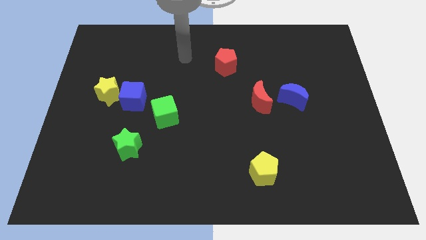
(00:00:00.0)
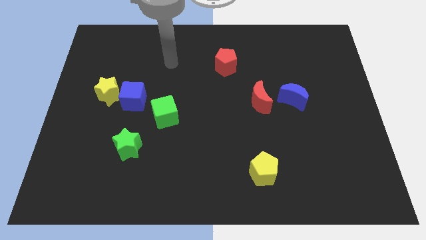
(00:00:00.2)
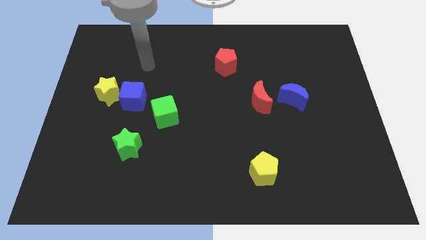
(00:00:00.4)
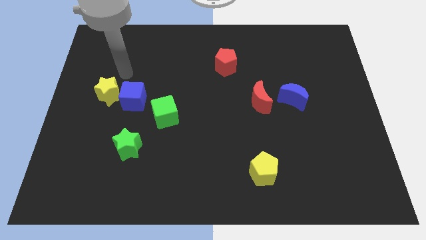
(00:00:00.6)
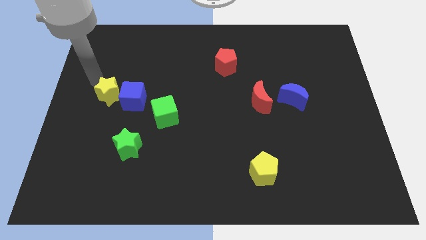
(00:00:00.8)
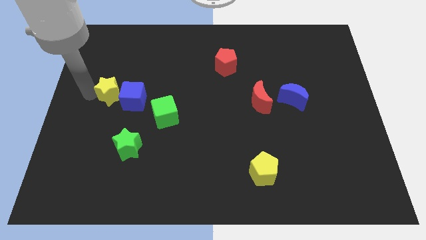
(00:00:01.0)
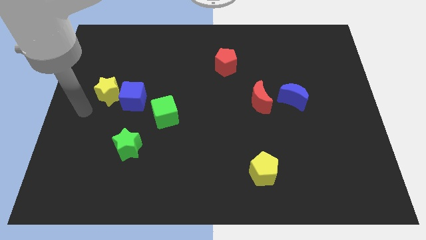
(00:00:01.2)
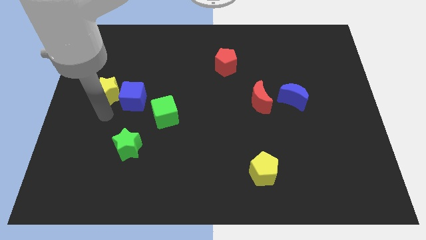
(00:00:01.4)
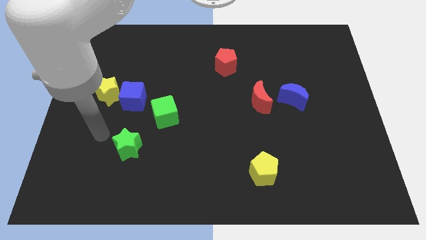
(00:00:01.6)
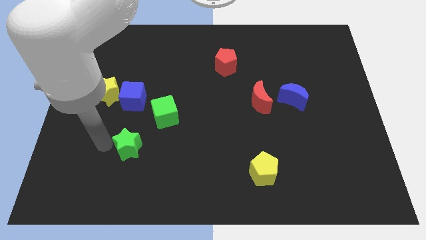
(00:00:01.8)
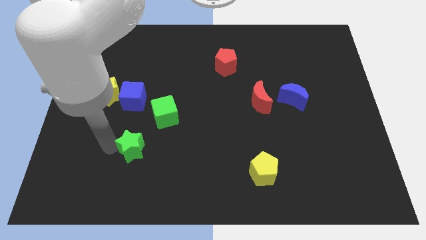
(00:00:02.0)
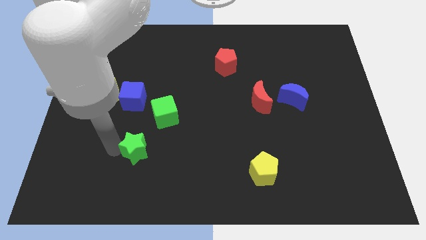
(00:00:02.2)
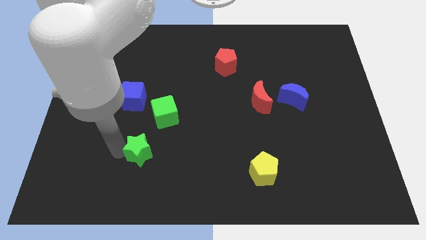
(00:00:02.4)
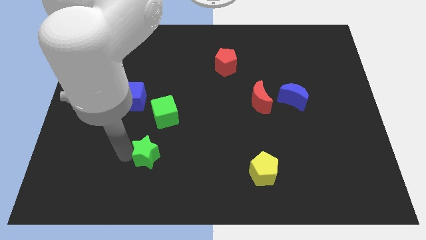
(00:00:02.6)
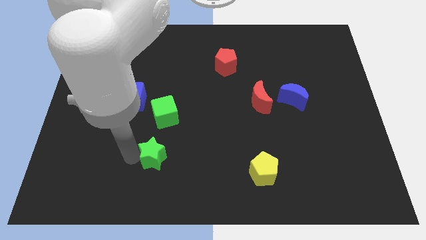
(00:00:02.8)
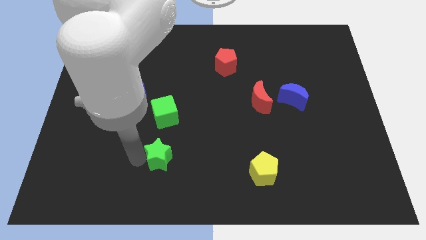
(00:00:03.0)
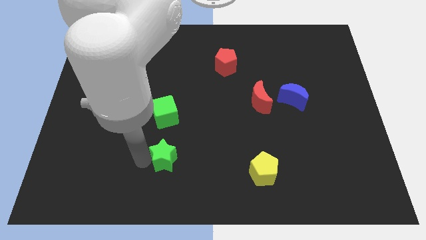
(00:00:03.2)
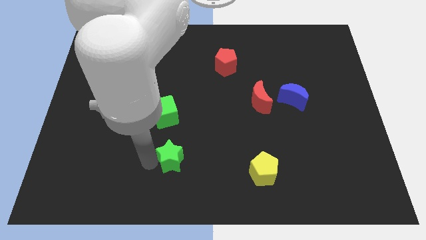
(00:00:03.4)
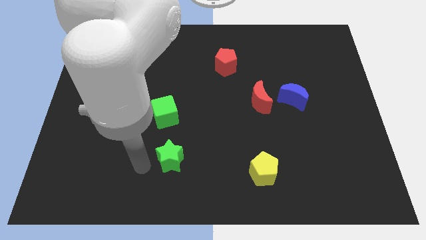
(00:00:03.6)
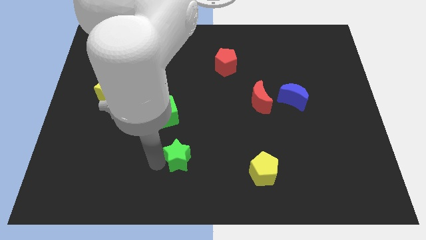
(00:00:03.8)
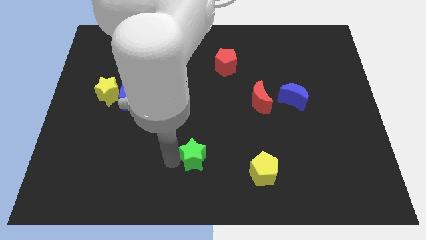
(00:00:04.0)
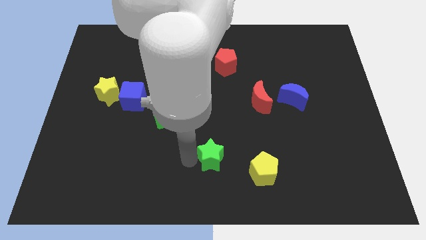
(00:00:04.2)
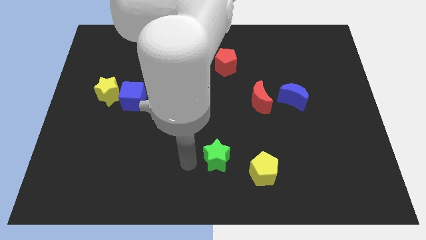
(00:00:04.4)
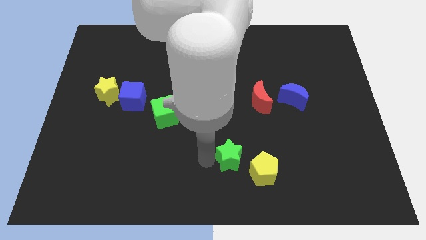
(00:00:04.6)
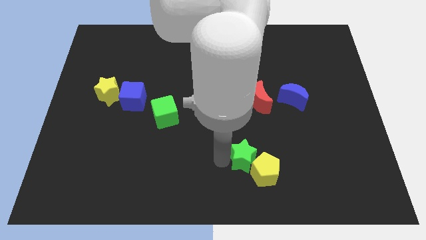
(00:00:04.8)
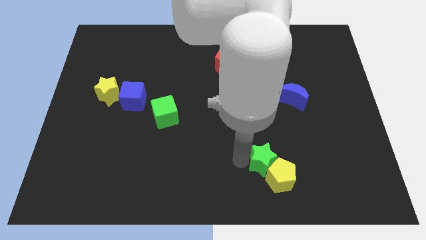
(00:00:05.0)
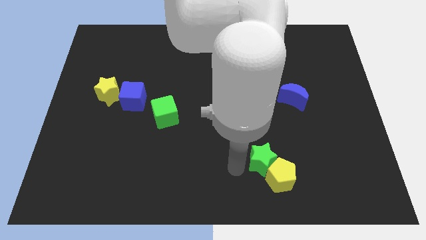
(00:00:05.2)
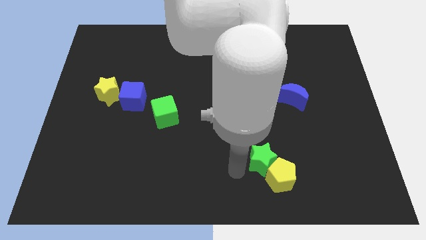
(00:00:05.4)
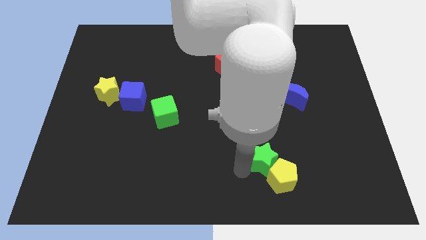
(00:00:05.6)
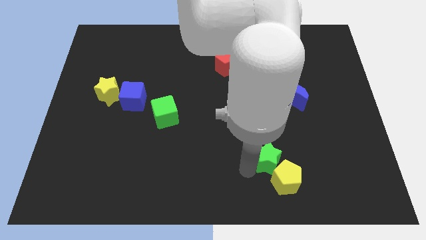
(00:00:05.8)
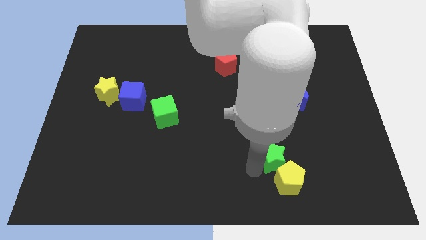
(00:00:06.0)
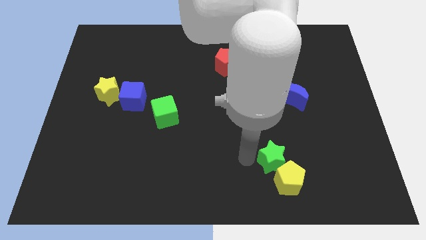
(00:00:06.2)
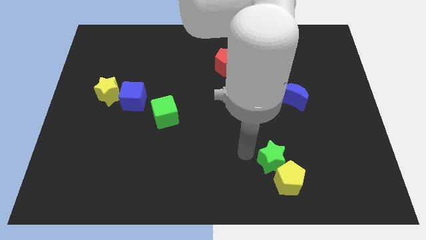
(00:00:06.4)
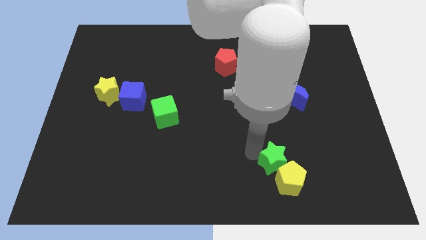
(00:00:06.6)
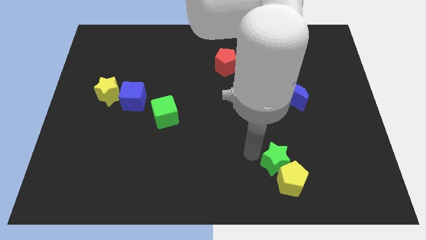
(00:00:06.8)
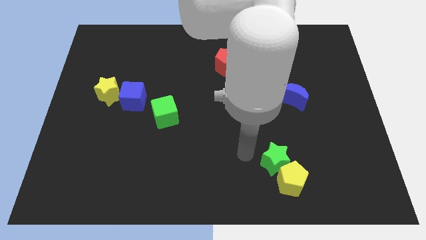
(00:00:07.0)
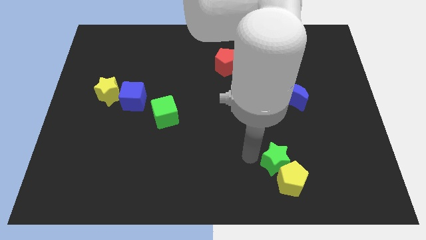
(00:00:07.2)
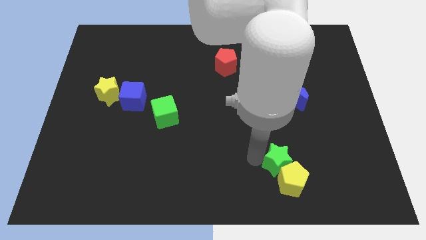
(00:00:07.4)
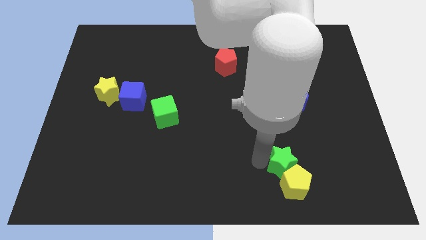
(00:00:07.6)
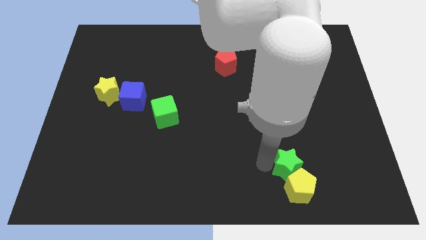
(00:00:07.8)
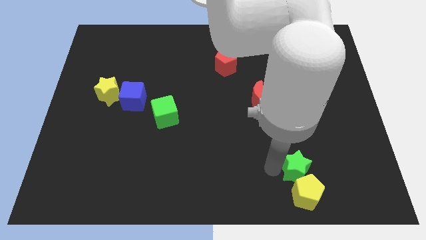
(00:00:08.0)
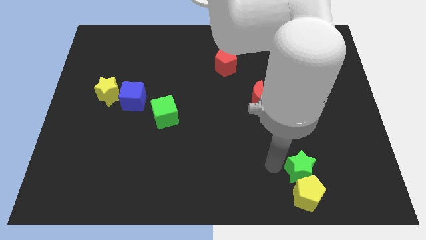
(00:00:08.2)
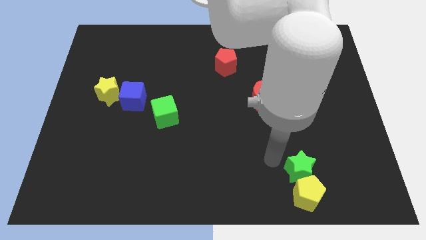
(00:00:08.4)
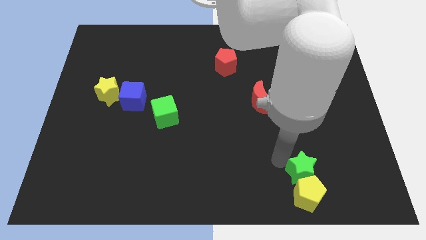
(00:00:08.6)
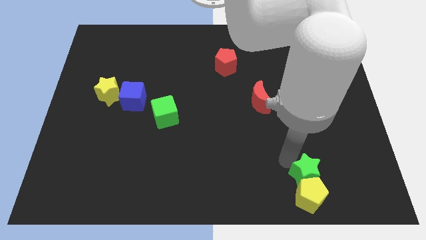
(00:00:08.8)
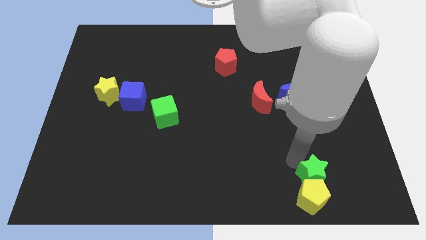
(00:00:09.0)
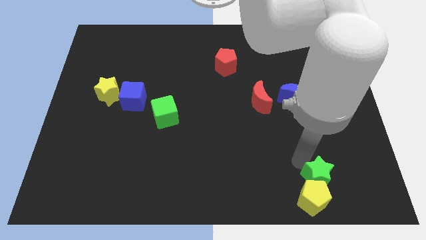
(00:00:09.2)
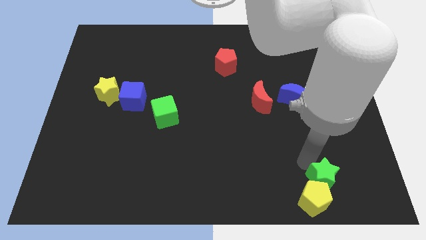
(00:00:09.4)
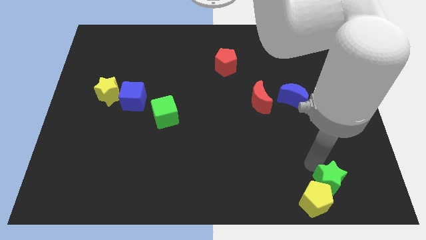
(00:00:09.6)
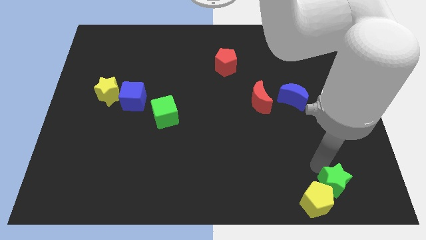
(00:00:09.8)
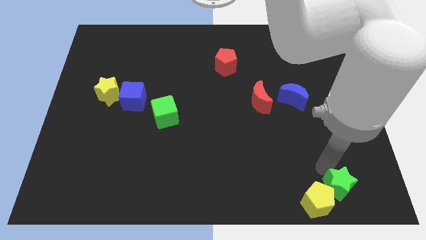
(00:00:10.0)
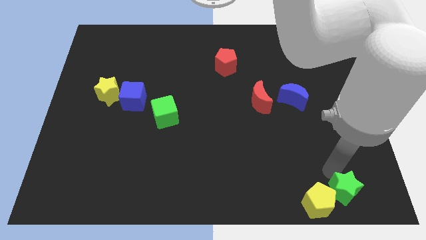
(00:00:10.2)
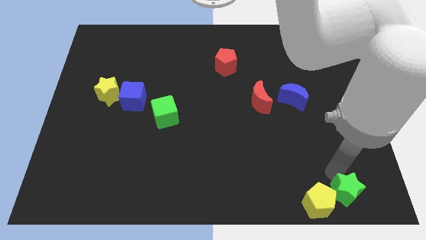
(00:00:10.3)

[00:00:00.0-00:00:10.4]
put the green star to the bottom right corner

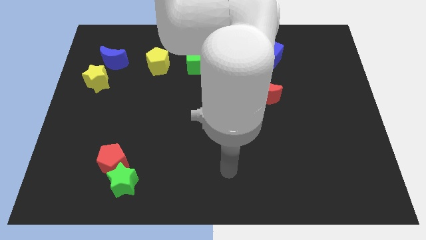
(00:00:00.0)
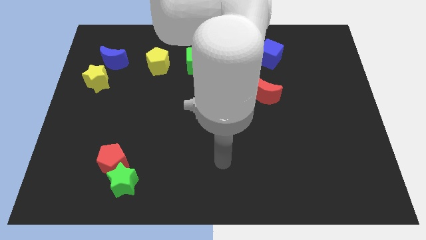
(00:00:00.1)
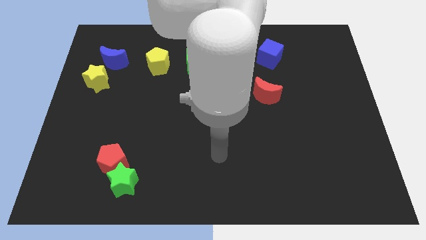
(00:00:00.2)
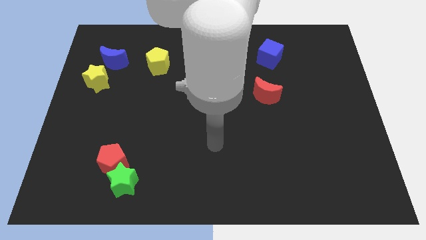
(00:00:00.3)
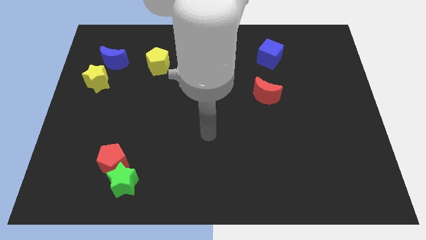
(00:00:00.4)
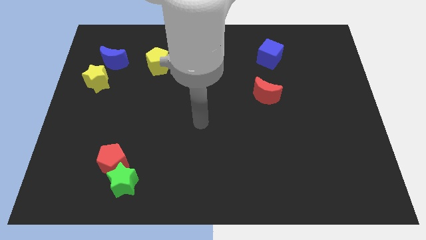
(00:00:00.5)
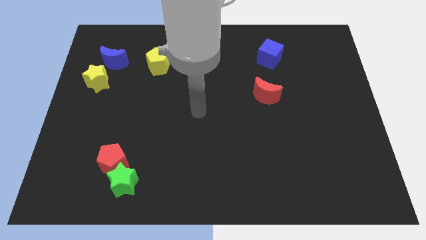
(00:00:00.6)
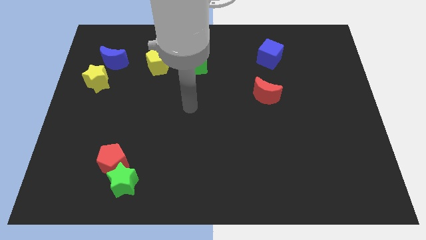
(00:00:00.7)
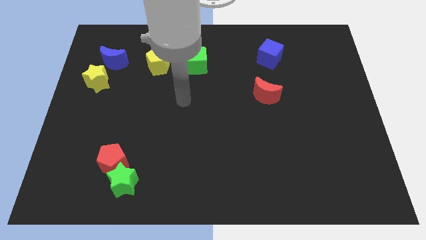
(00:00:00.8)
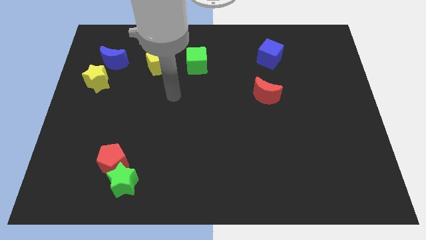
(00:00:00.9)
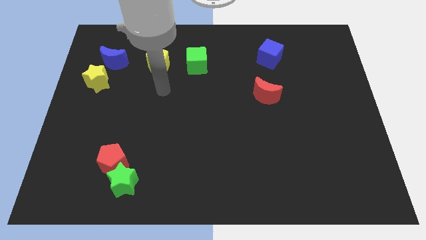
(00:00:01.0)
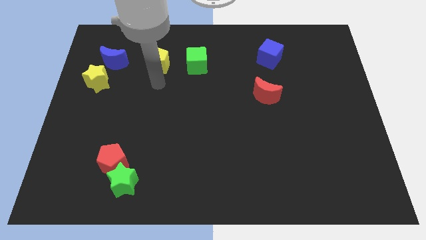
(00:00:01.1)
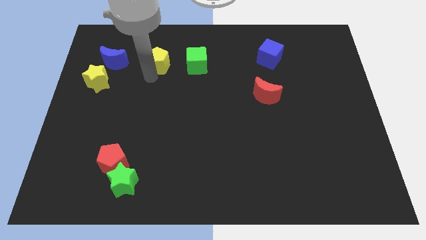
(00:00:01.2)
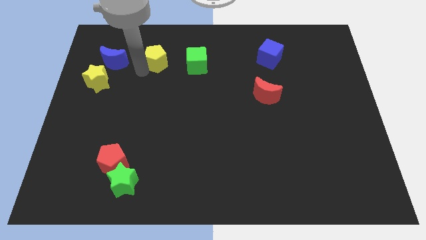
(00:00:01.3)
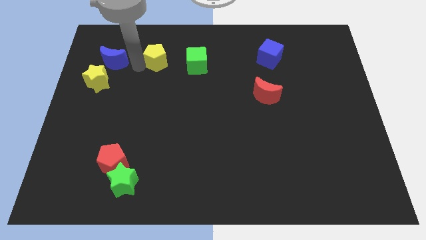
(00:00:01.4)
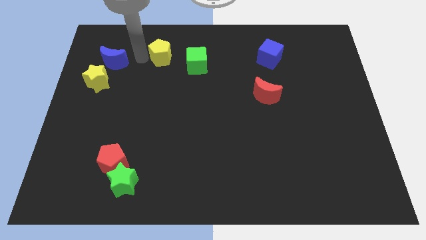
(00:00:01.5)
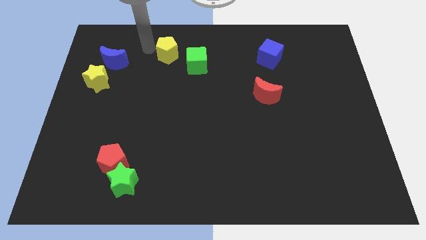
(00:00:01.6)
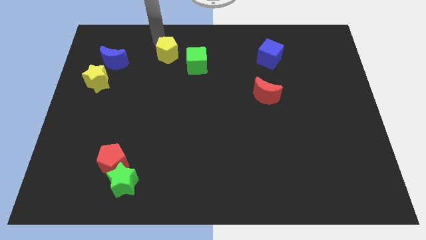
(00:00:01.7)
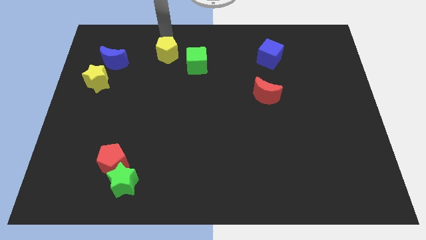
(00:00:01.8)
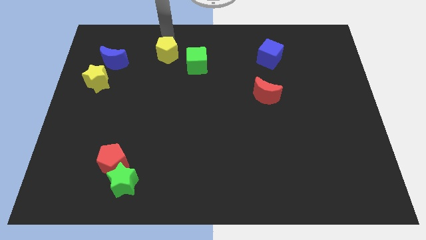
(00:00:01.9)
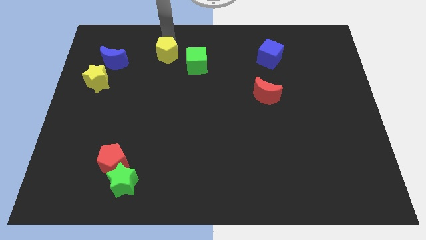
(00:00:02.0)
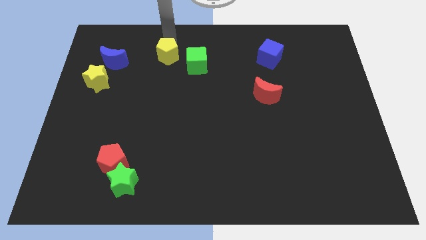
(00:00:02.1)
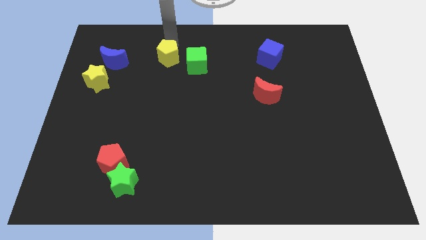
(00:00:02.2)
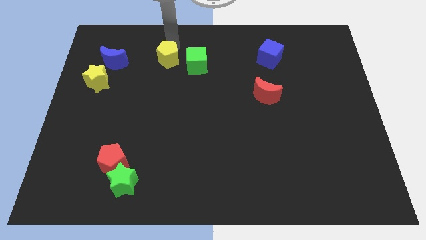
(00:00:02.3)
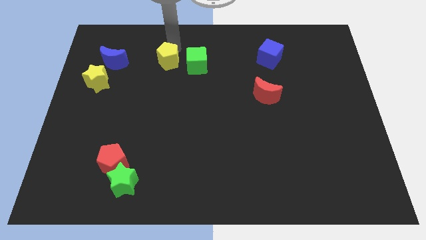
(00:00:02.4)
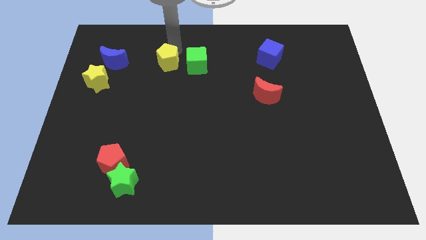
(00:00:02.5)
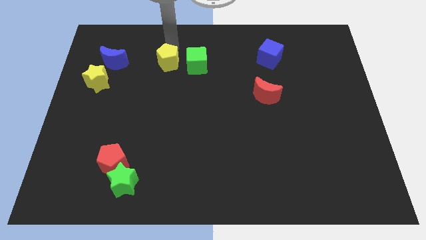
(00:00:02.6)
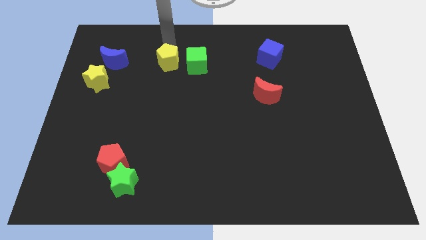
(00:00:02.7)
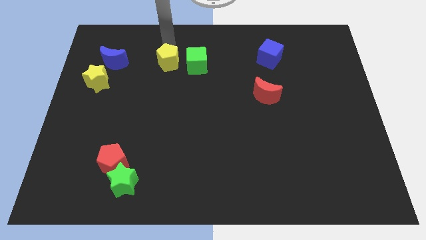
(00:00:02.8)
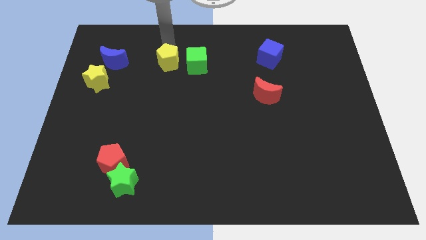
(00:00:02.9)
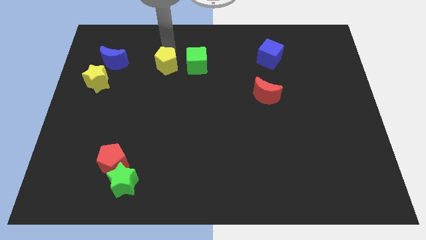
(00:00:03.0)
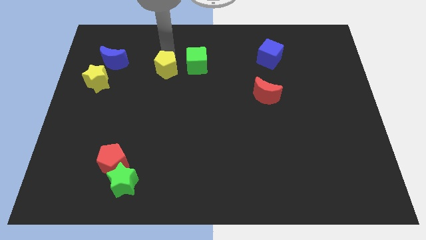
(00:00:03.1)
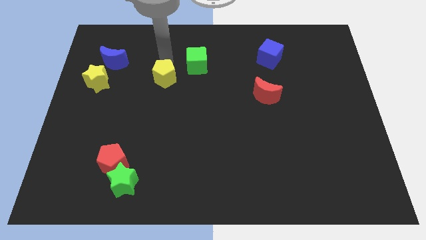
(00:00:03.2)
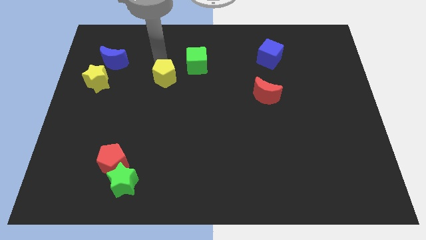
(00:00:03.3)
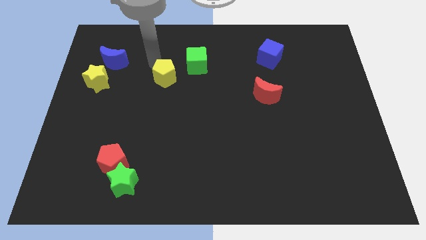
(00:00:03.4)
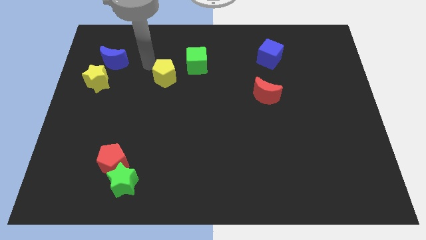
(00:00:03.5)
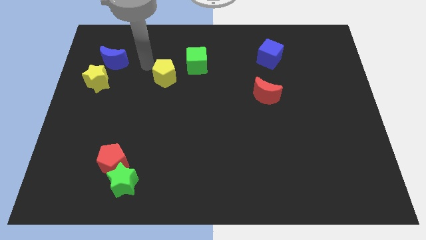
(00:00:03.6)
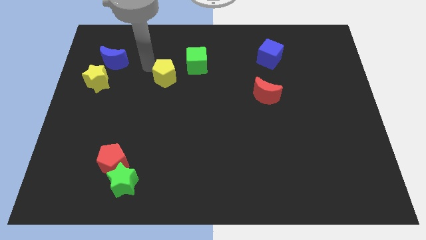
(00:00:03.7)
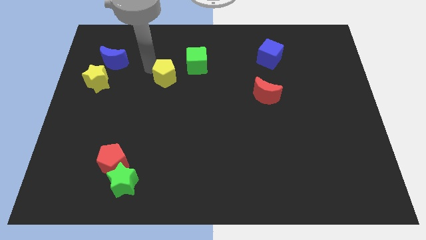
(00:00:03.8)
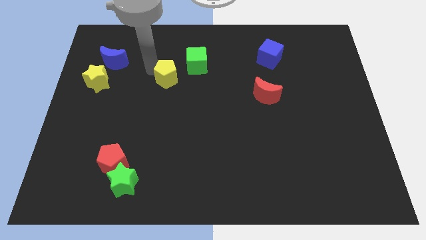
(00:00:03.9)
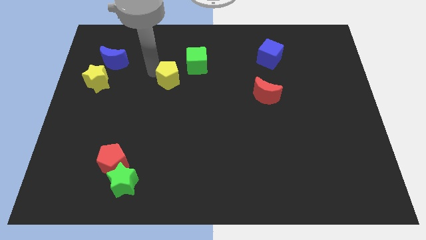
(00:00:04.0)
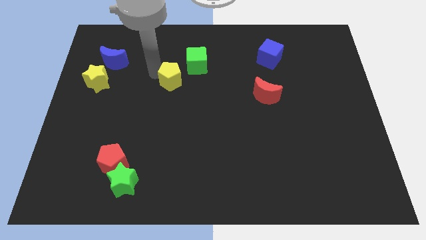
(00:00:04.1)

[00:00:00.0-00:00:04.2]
move the yellow pentagon to the center of the board
